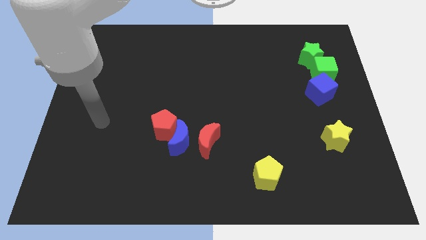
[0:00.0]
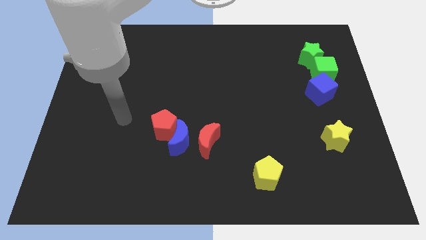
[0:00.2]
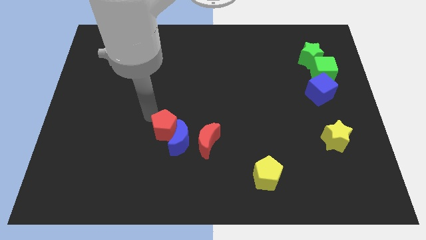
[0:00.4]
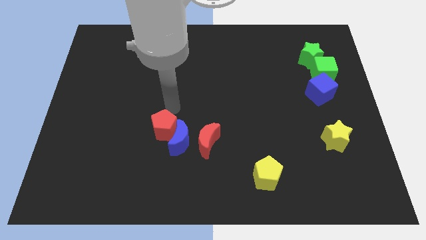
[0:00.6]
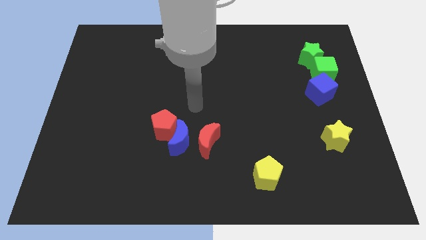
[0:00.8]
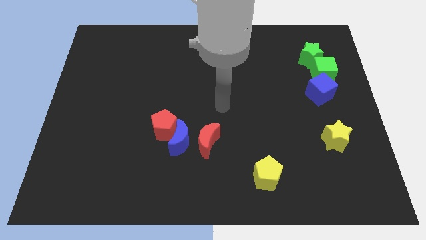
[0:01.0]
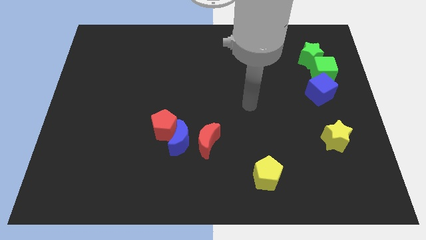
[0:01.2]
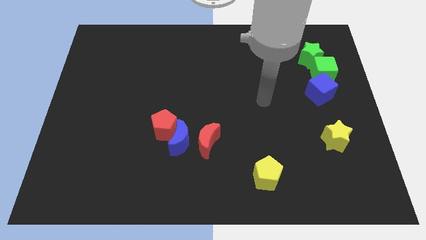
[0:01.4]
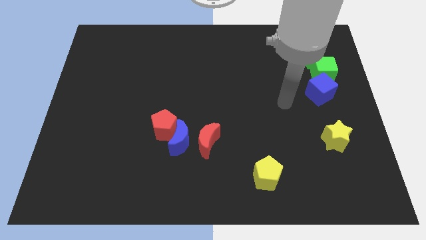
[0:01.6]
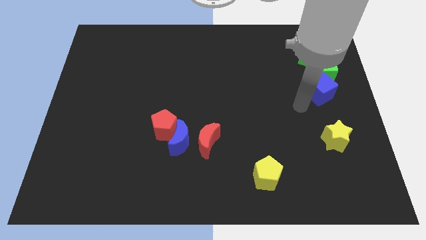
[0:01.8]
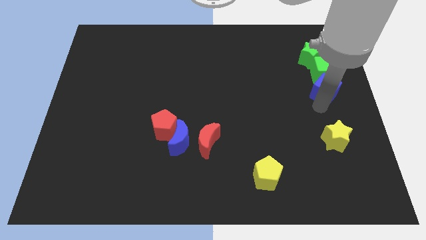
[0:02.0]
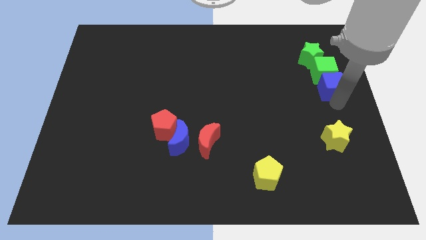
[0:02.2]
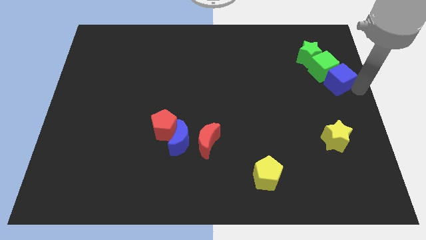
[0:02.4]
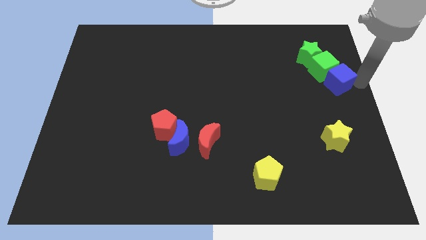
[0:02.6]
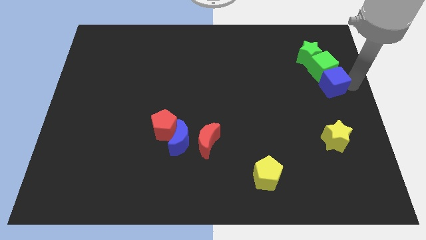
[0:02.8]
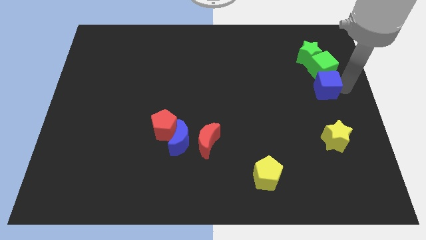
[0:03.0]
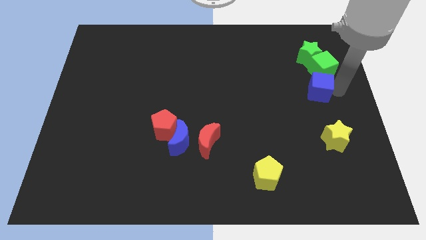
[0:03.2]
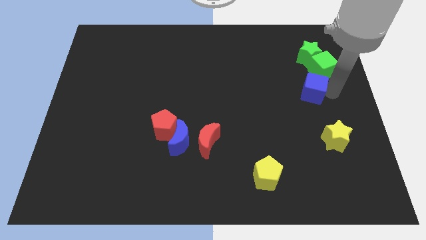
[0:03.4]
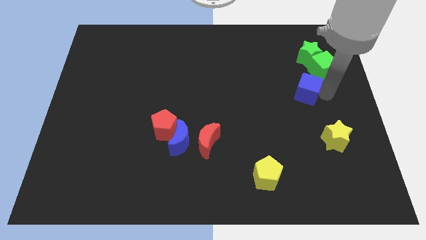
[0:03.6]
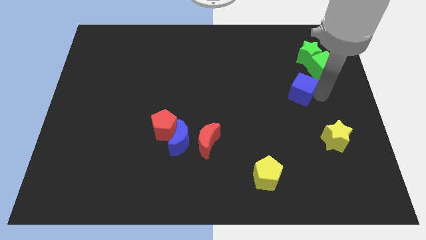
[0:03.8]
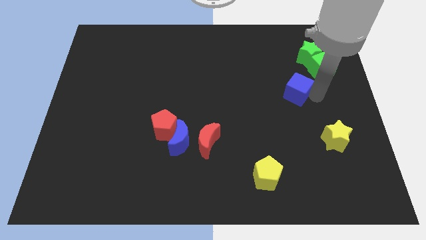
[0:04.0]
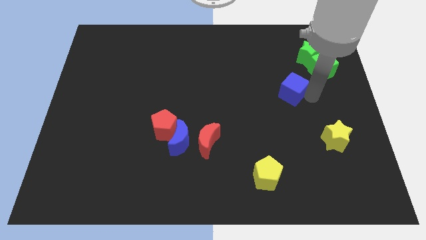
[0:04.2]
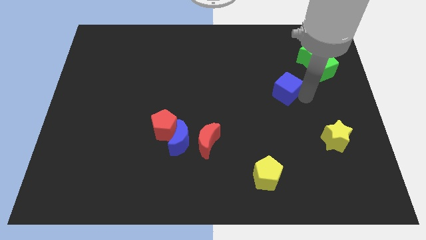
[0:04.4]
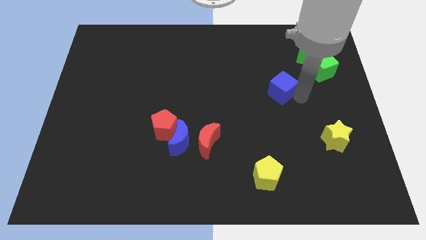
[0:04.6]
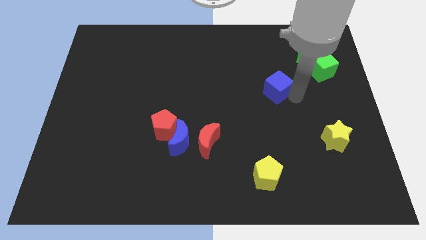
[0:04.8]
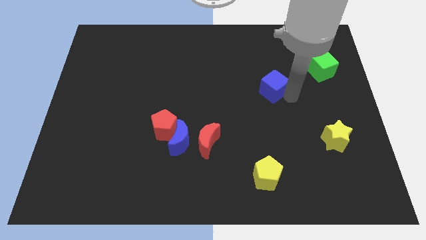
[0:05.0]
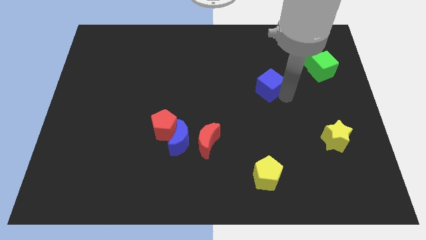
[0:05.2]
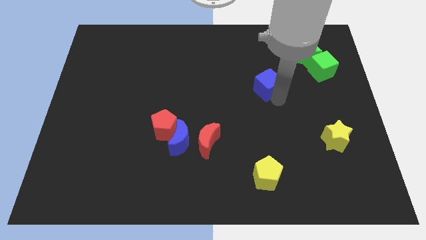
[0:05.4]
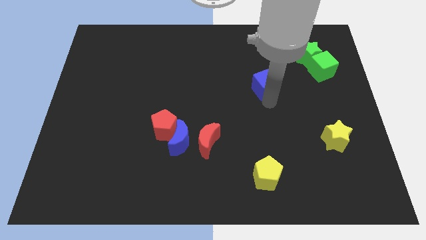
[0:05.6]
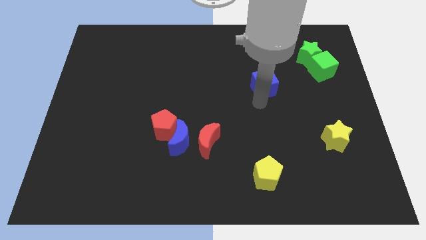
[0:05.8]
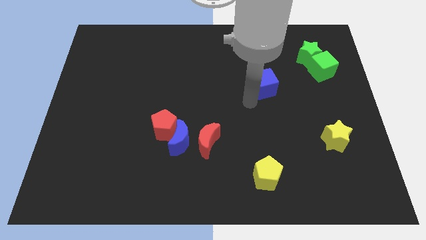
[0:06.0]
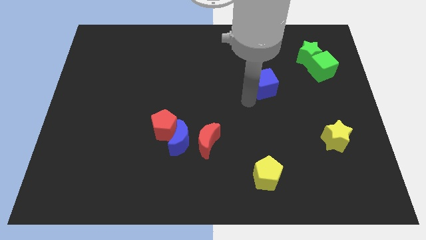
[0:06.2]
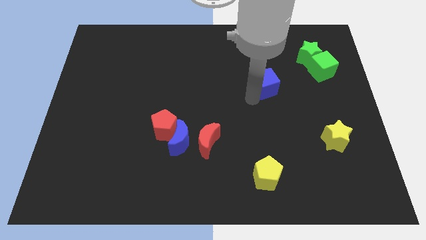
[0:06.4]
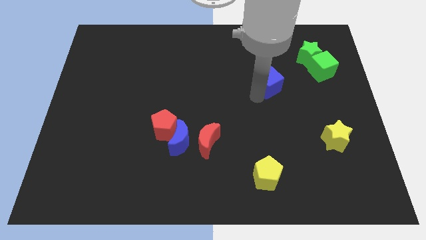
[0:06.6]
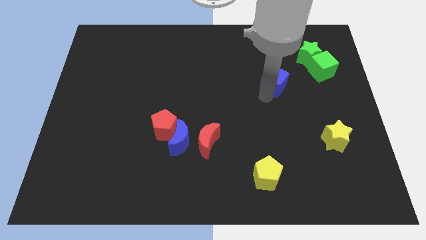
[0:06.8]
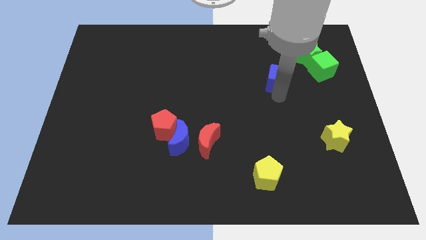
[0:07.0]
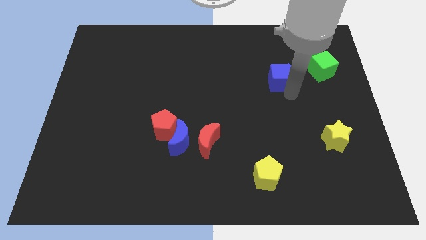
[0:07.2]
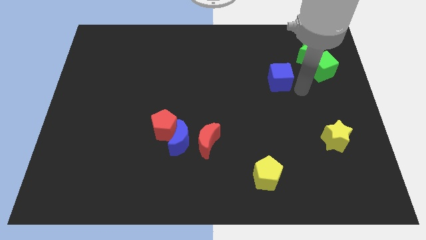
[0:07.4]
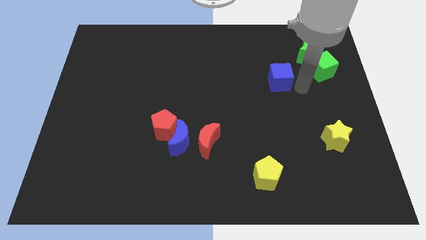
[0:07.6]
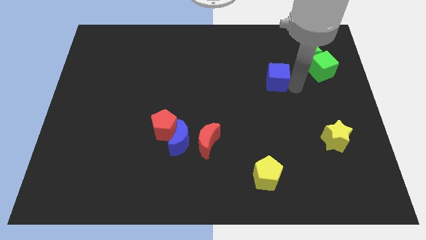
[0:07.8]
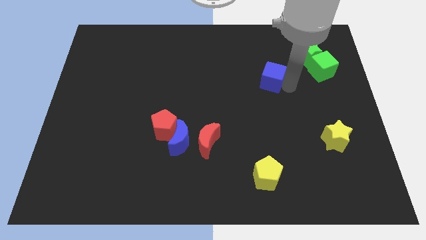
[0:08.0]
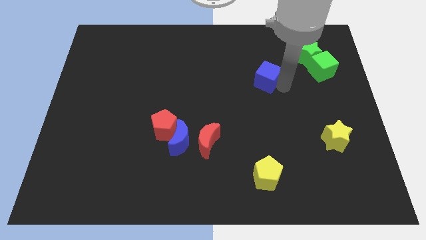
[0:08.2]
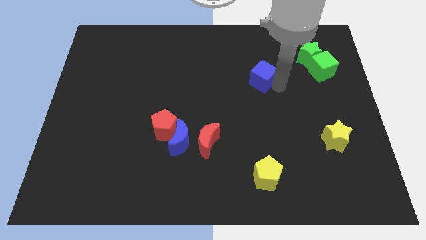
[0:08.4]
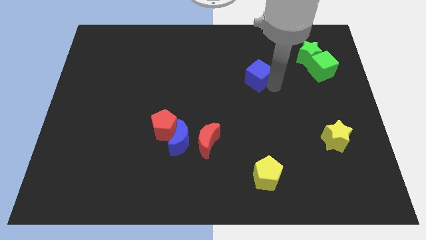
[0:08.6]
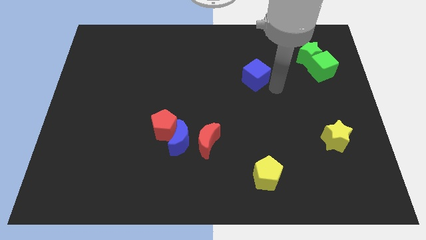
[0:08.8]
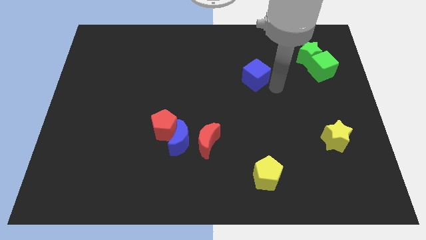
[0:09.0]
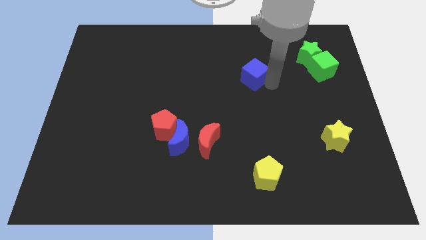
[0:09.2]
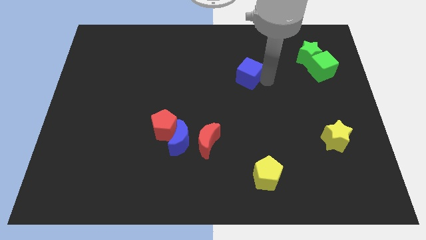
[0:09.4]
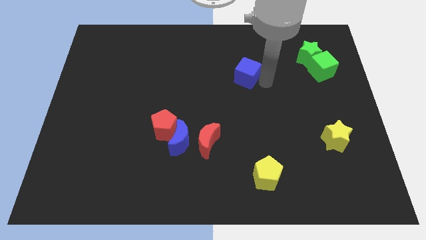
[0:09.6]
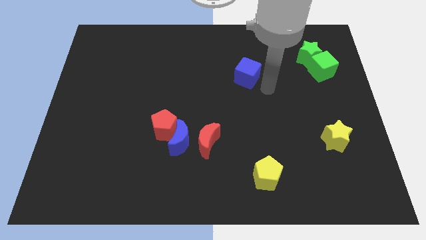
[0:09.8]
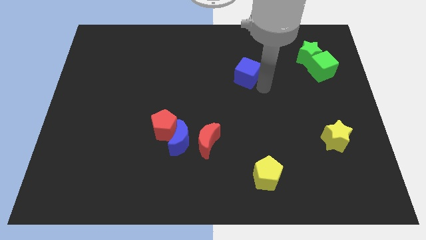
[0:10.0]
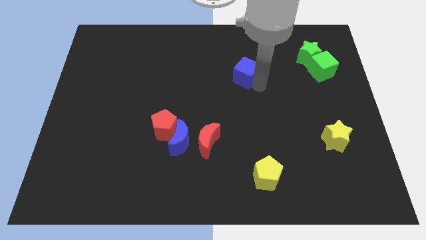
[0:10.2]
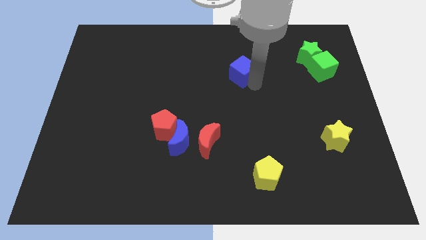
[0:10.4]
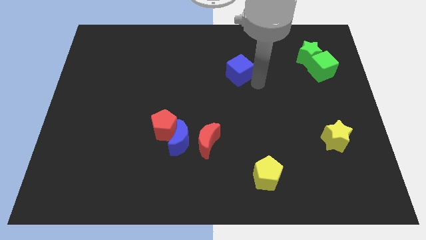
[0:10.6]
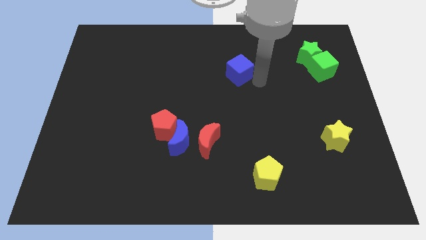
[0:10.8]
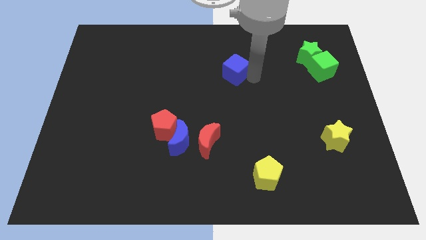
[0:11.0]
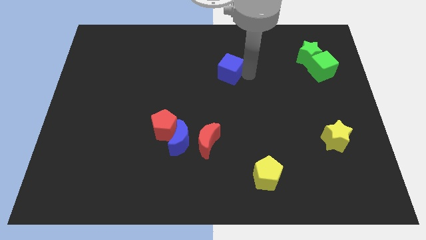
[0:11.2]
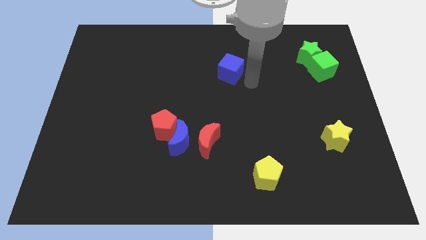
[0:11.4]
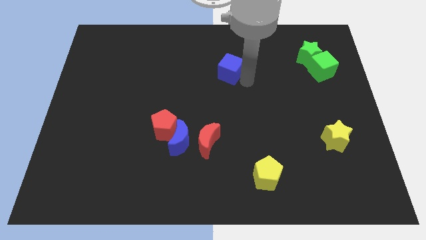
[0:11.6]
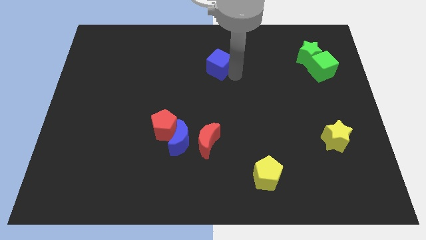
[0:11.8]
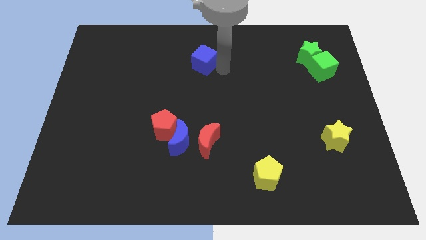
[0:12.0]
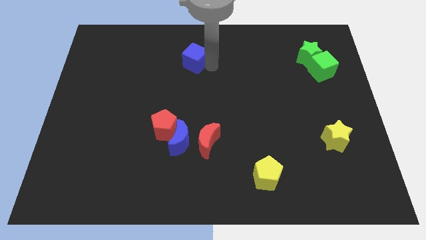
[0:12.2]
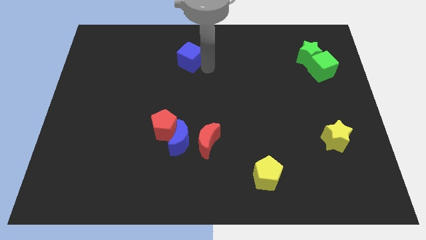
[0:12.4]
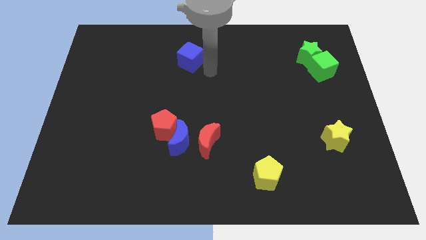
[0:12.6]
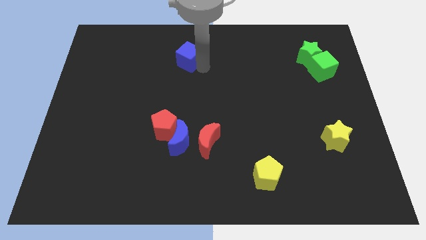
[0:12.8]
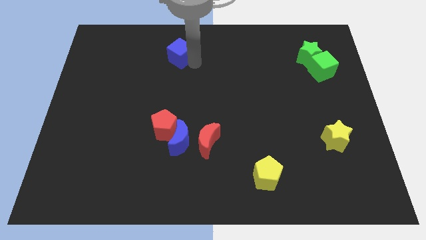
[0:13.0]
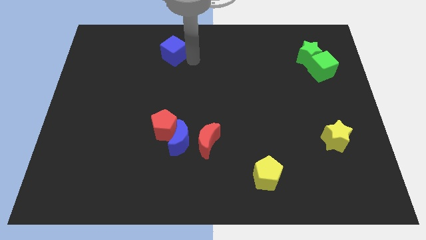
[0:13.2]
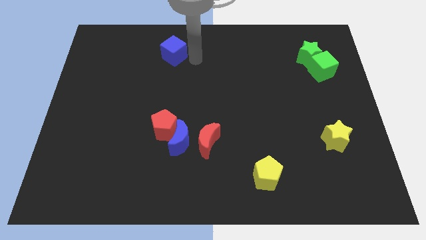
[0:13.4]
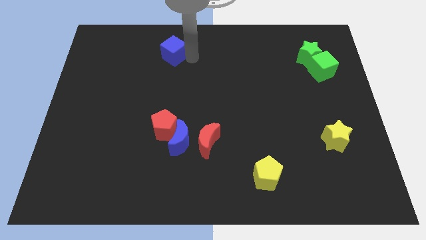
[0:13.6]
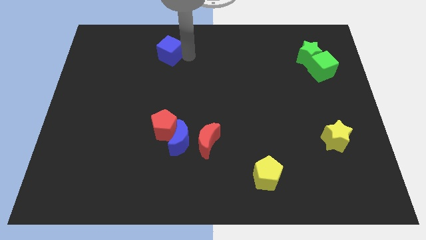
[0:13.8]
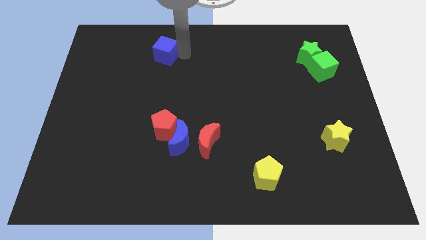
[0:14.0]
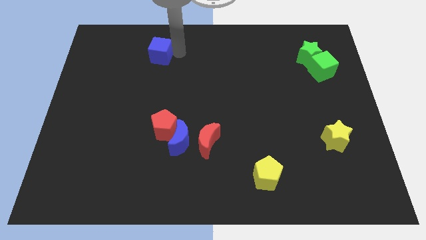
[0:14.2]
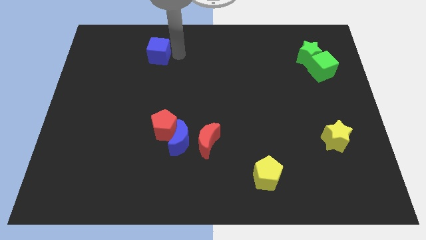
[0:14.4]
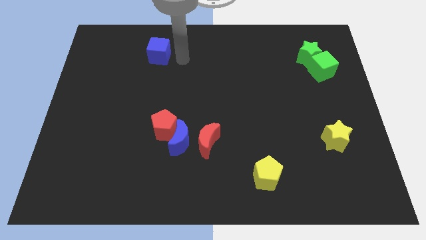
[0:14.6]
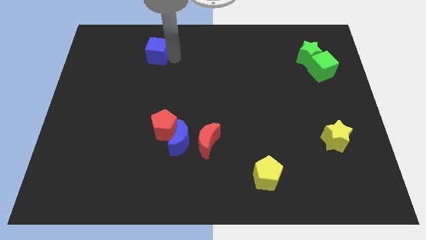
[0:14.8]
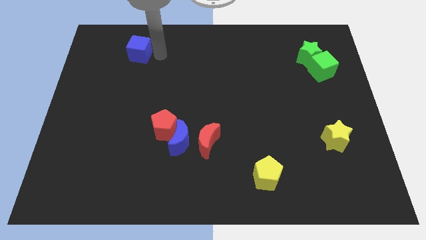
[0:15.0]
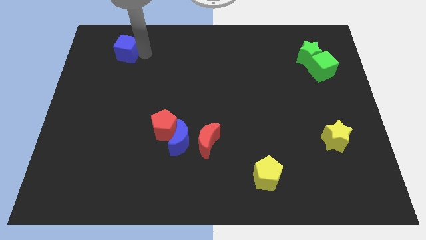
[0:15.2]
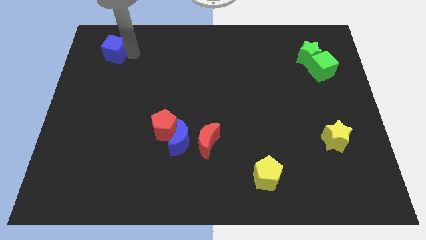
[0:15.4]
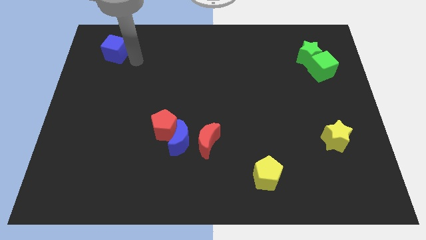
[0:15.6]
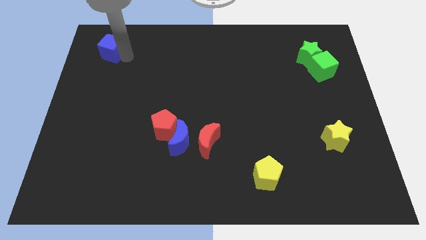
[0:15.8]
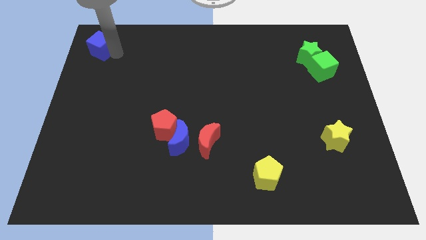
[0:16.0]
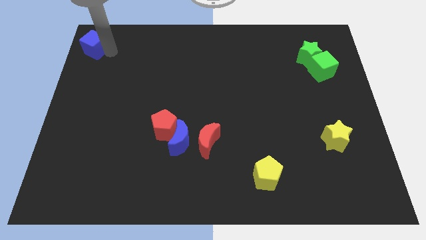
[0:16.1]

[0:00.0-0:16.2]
slide the blue cube to the top left corner
